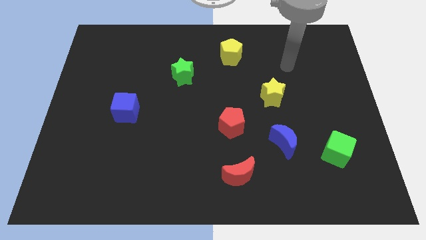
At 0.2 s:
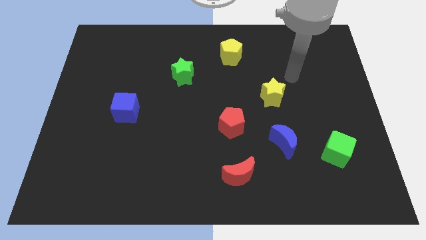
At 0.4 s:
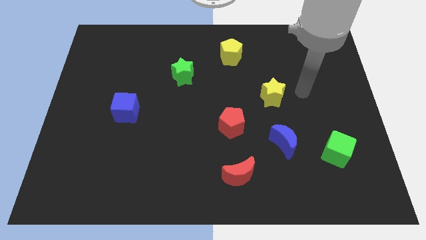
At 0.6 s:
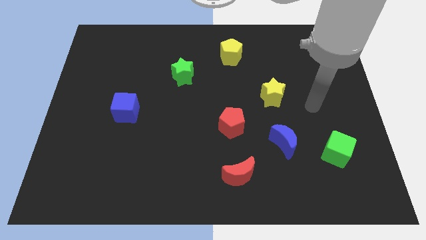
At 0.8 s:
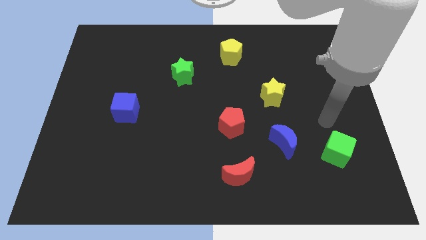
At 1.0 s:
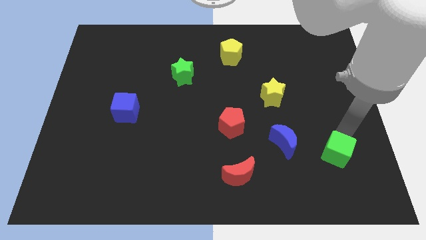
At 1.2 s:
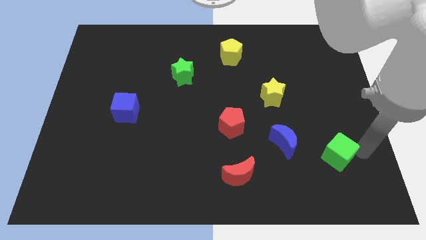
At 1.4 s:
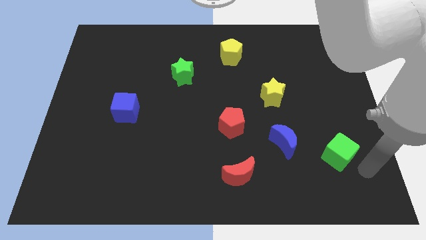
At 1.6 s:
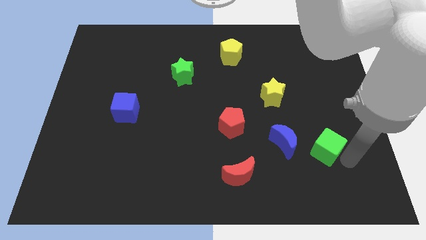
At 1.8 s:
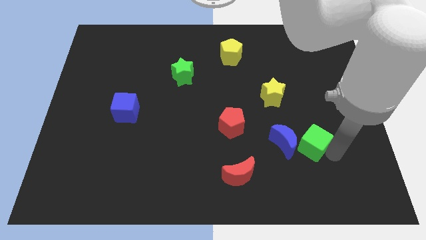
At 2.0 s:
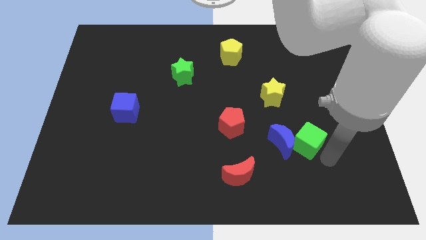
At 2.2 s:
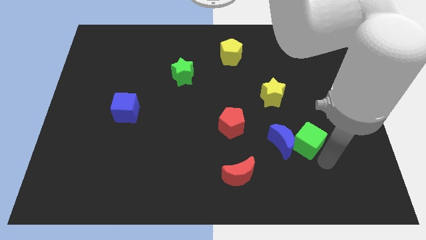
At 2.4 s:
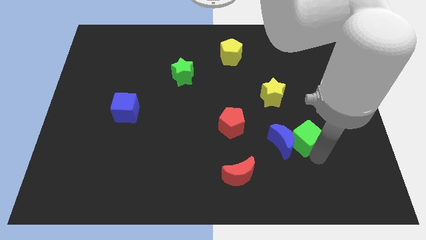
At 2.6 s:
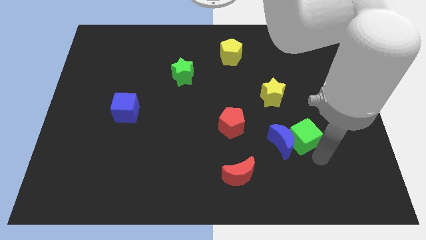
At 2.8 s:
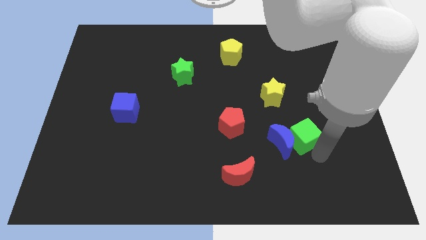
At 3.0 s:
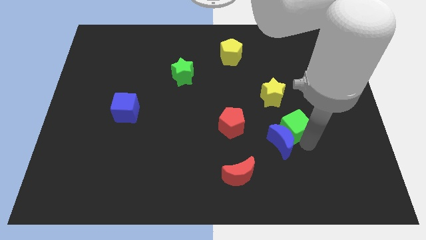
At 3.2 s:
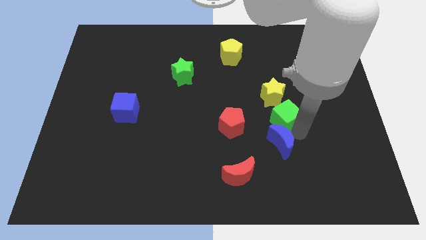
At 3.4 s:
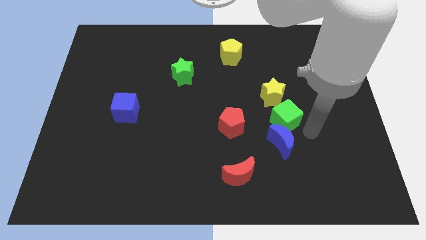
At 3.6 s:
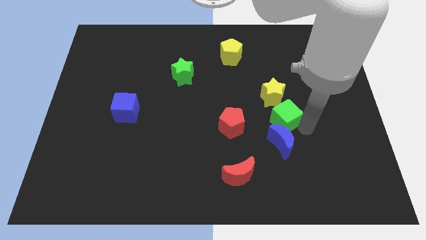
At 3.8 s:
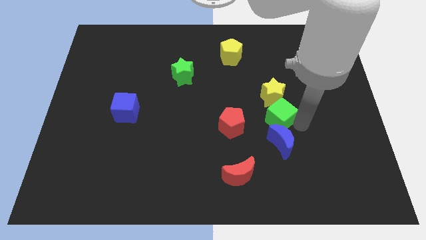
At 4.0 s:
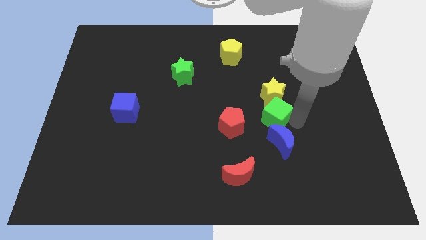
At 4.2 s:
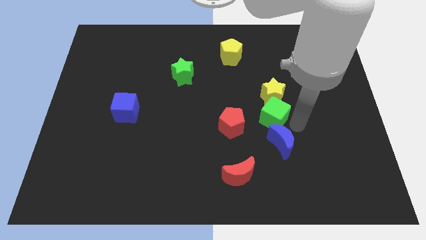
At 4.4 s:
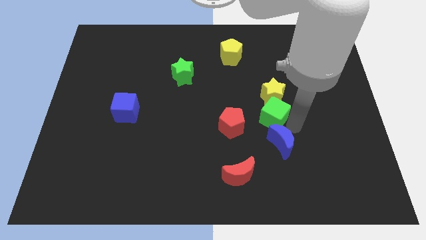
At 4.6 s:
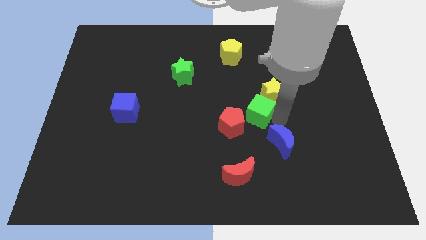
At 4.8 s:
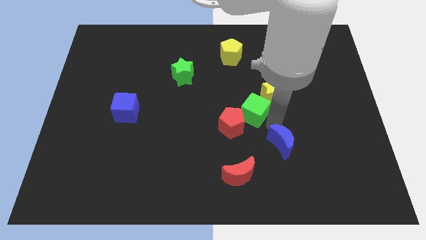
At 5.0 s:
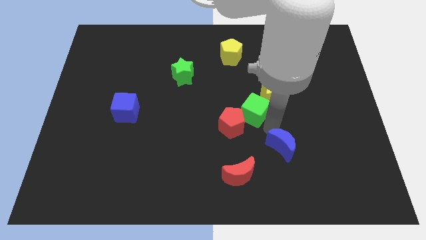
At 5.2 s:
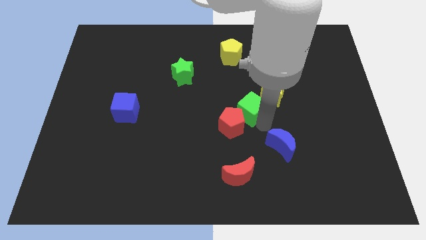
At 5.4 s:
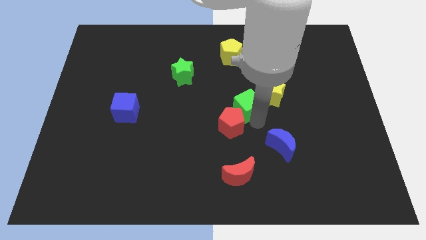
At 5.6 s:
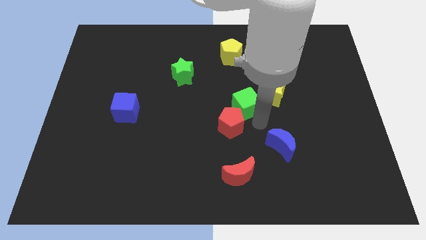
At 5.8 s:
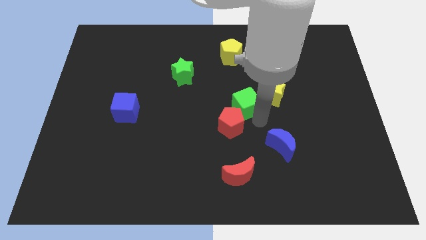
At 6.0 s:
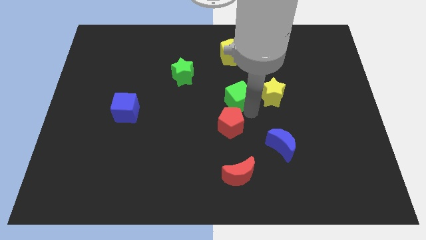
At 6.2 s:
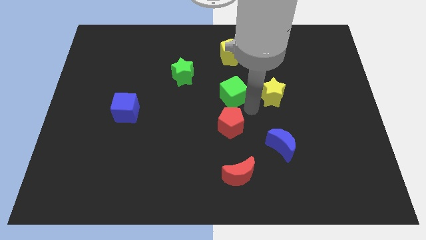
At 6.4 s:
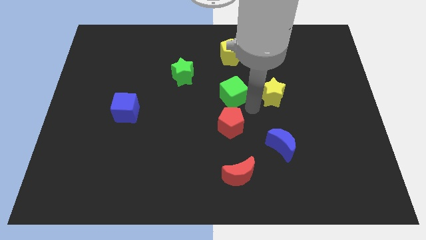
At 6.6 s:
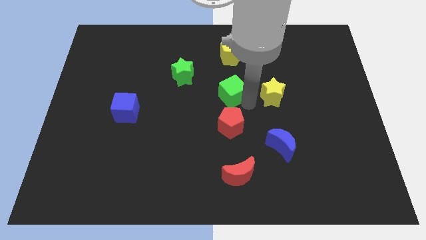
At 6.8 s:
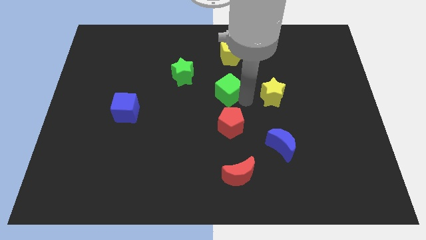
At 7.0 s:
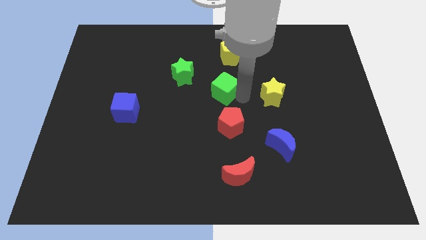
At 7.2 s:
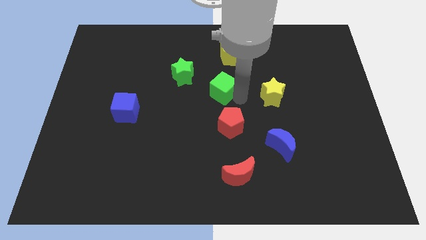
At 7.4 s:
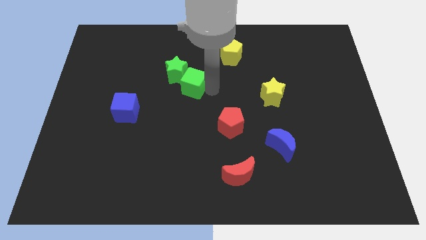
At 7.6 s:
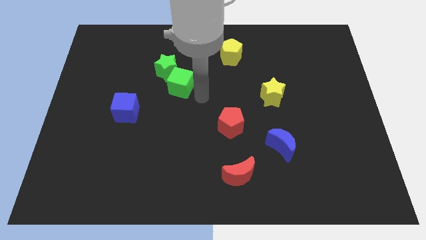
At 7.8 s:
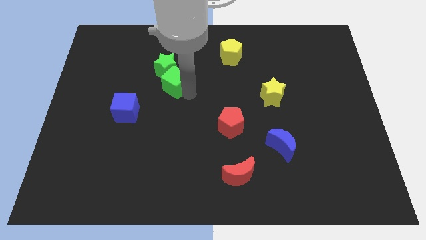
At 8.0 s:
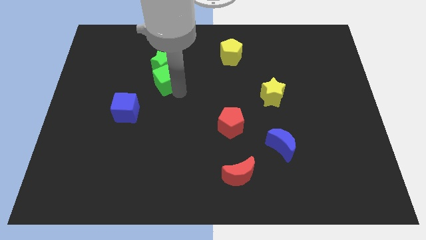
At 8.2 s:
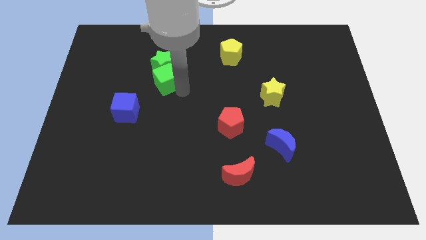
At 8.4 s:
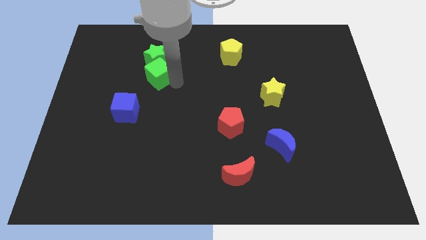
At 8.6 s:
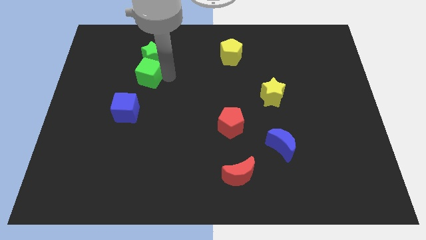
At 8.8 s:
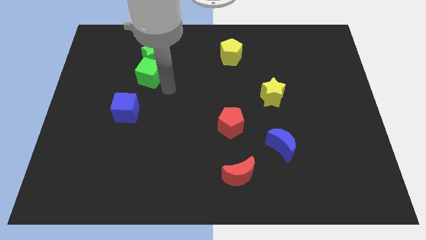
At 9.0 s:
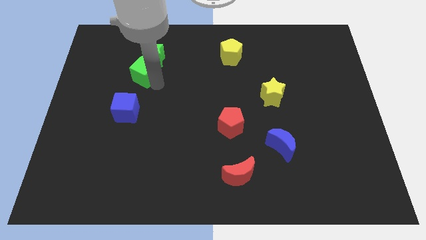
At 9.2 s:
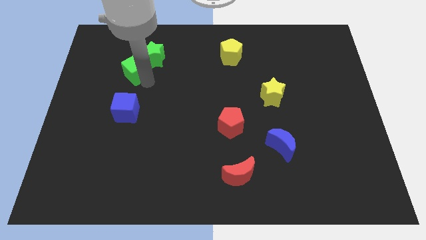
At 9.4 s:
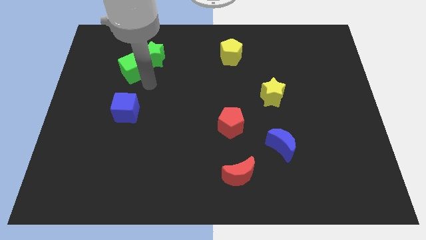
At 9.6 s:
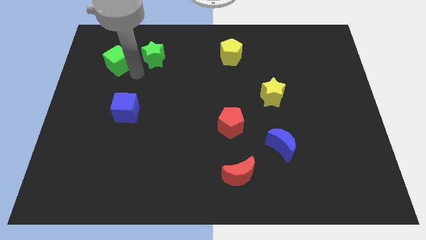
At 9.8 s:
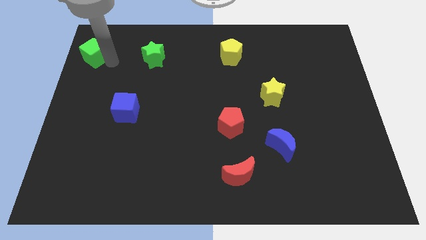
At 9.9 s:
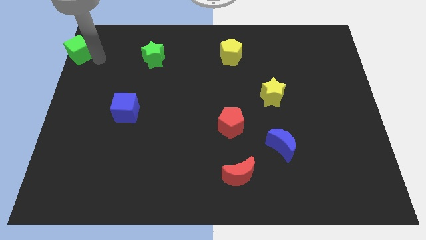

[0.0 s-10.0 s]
push the green cube to the top left corner
